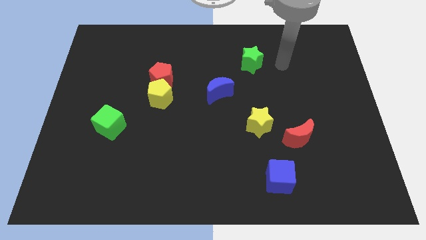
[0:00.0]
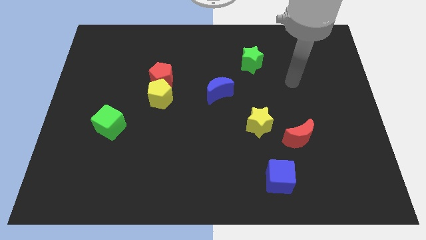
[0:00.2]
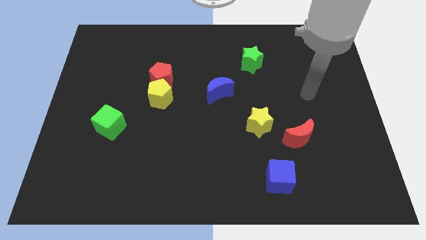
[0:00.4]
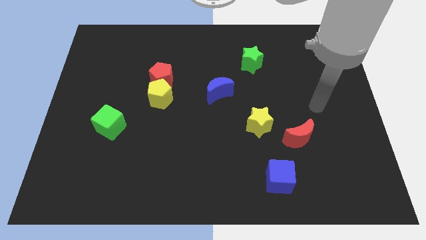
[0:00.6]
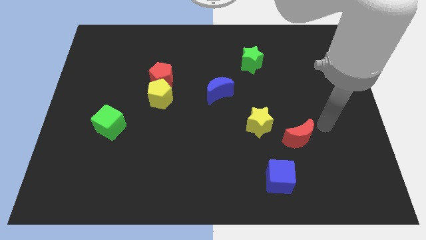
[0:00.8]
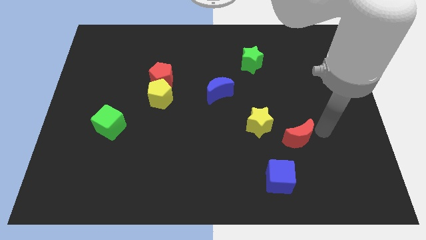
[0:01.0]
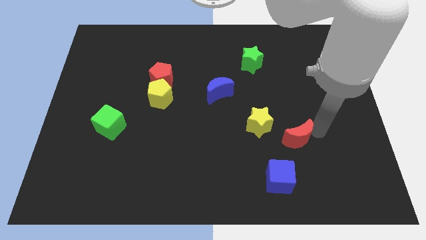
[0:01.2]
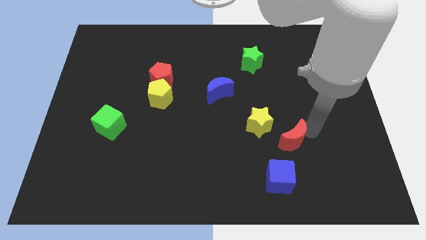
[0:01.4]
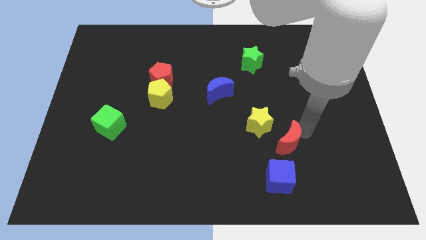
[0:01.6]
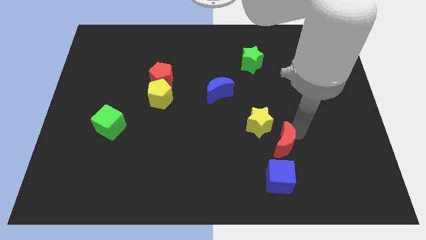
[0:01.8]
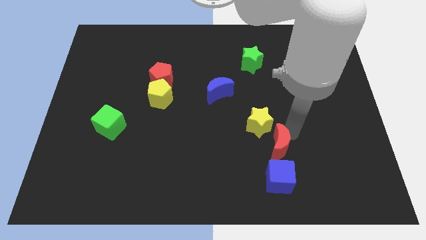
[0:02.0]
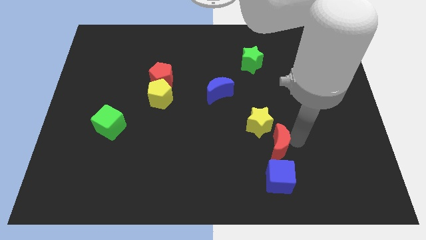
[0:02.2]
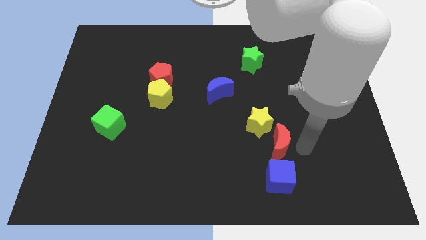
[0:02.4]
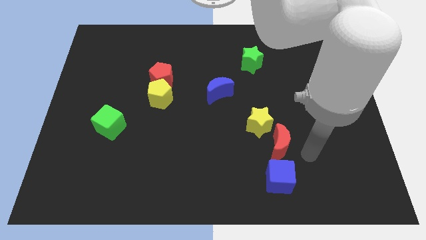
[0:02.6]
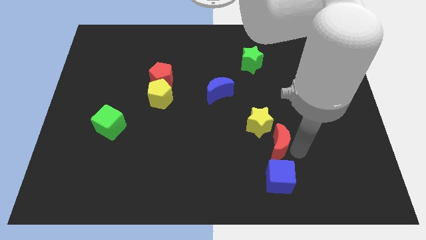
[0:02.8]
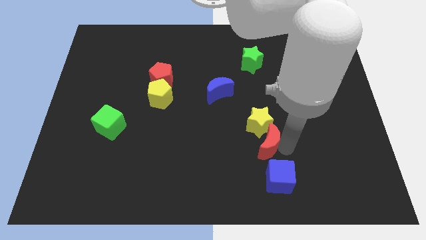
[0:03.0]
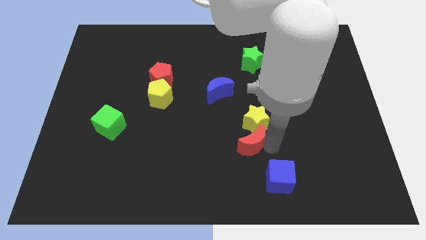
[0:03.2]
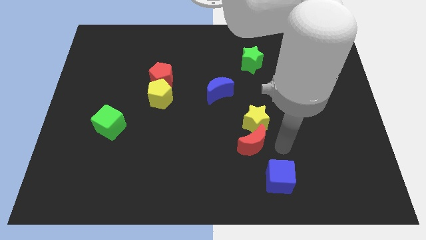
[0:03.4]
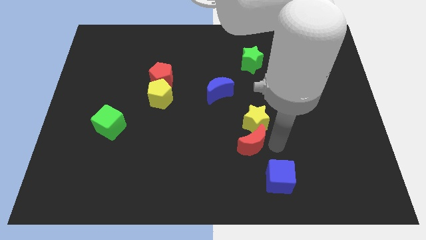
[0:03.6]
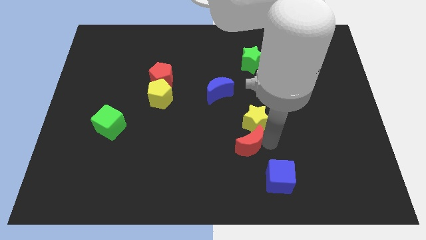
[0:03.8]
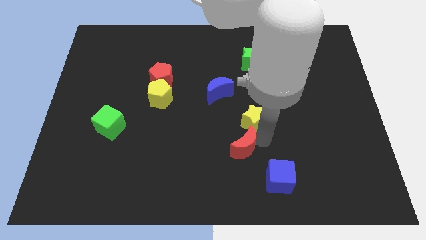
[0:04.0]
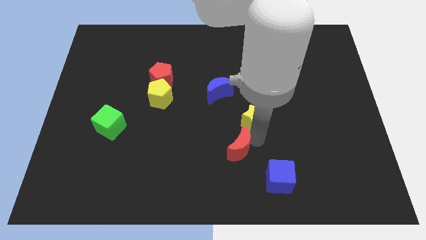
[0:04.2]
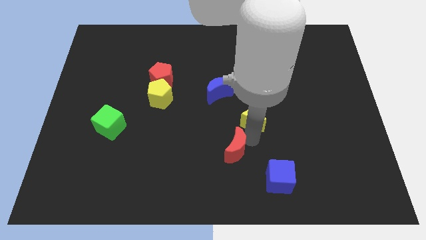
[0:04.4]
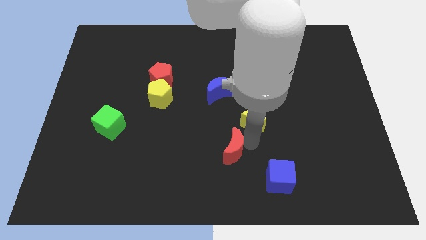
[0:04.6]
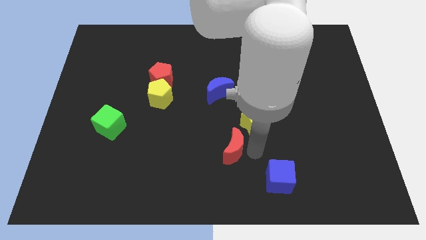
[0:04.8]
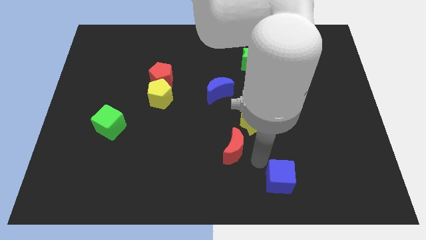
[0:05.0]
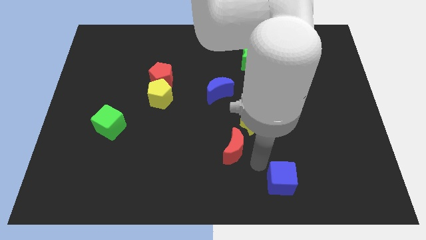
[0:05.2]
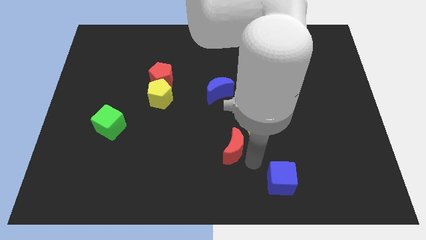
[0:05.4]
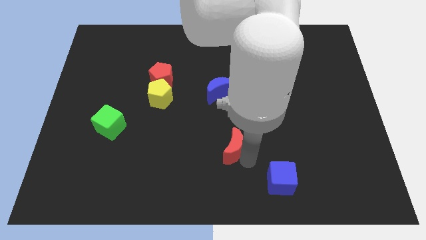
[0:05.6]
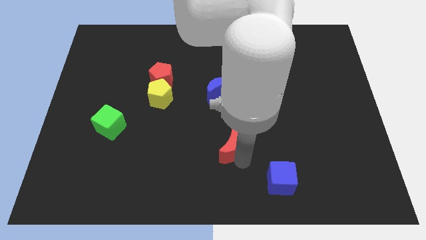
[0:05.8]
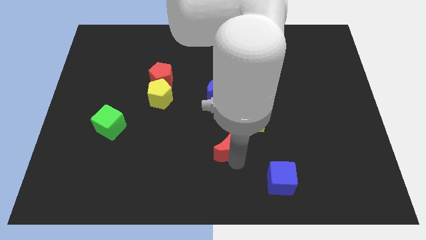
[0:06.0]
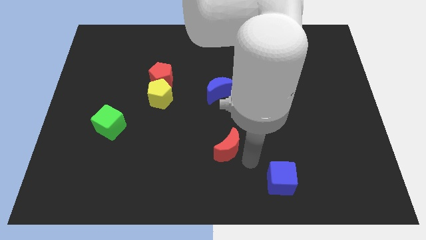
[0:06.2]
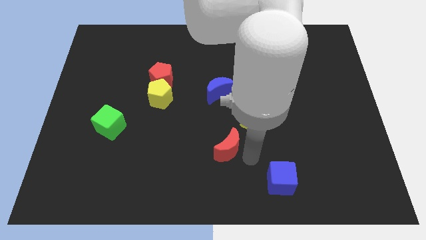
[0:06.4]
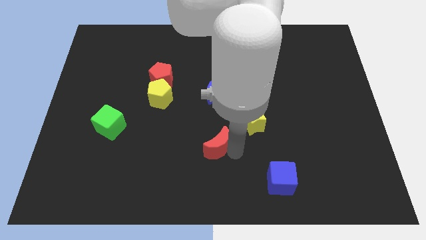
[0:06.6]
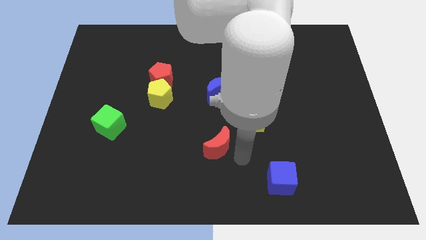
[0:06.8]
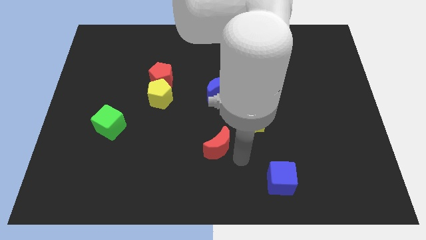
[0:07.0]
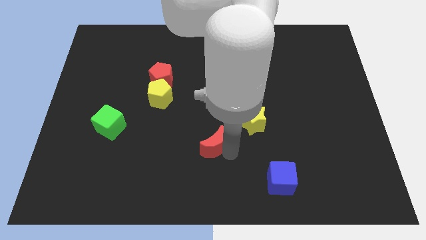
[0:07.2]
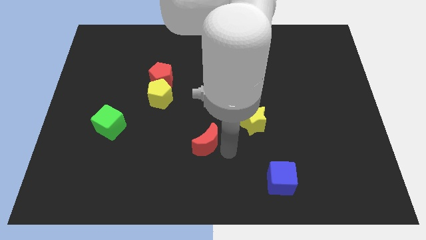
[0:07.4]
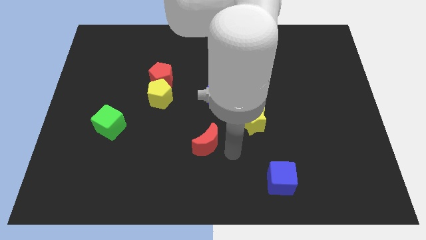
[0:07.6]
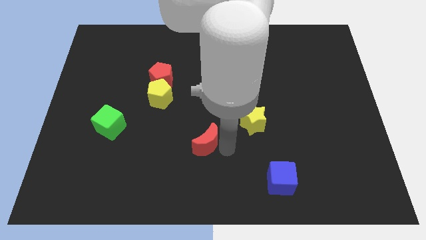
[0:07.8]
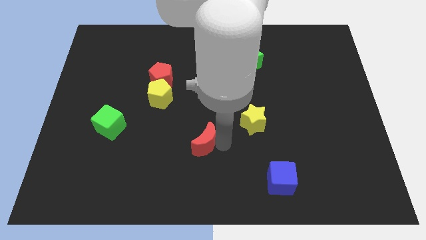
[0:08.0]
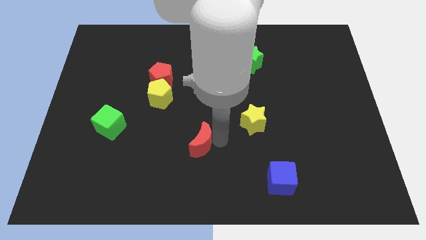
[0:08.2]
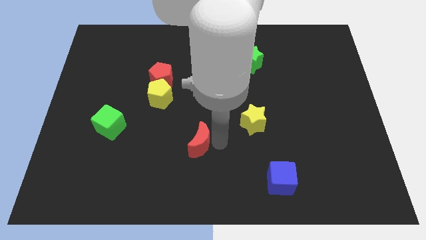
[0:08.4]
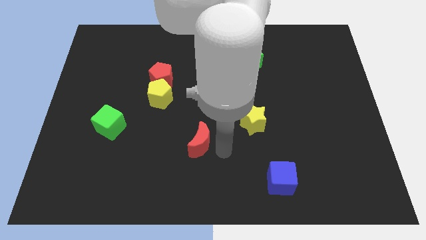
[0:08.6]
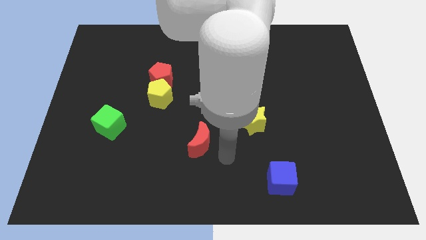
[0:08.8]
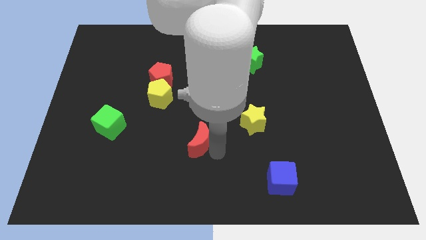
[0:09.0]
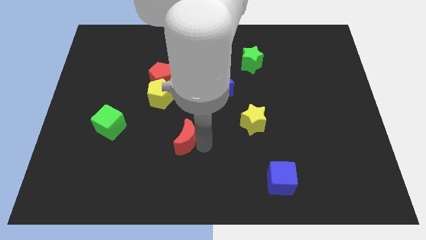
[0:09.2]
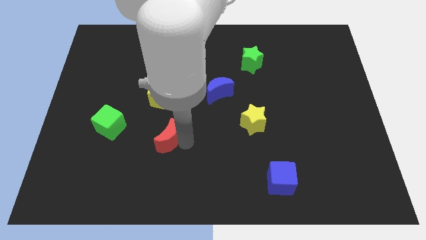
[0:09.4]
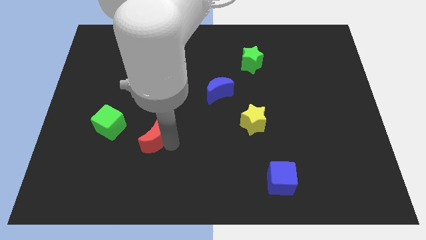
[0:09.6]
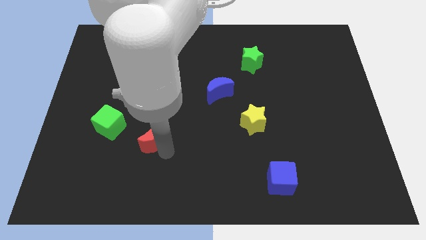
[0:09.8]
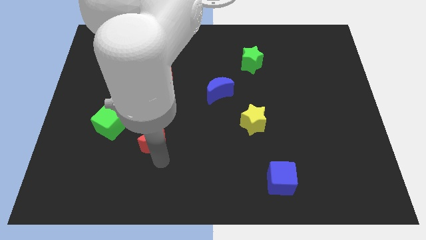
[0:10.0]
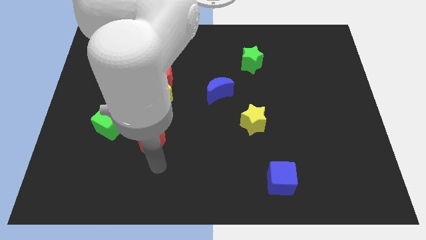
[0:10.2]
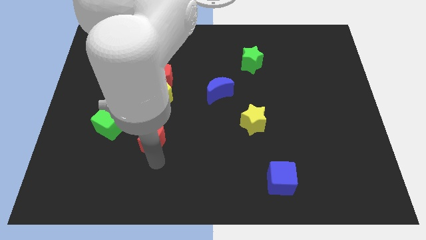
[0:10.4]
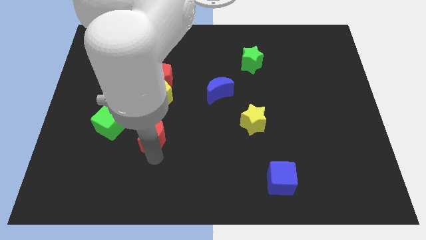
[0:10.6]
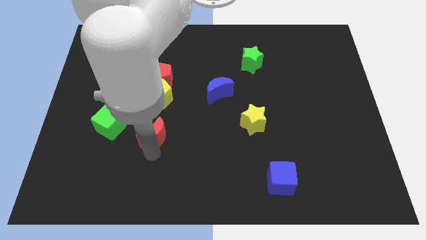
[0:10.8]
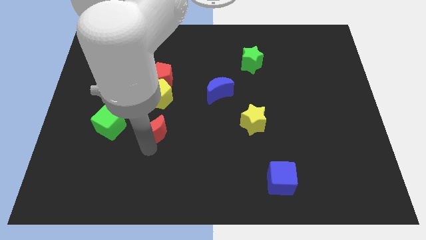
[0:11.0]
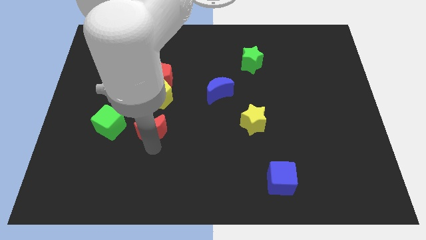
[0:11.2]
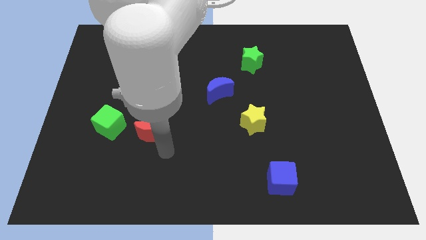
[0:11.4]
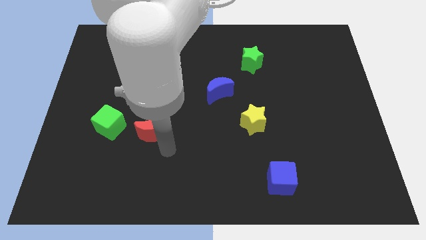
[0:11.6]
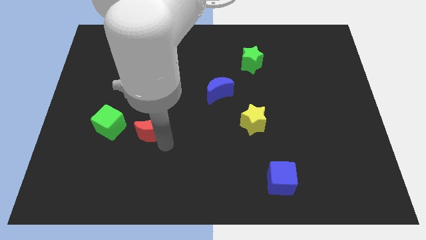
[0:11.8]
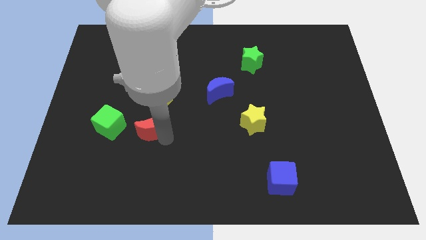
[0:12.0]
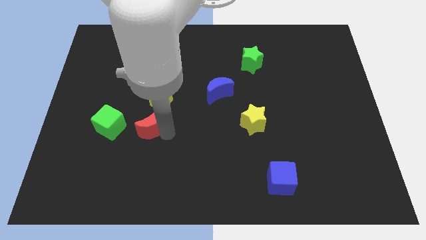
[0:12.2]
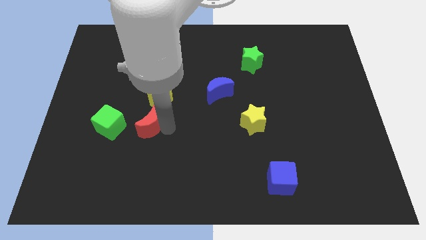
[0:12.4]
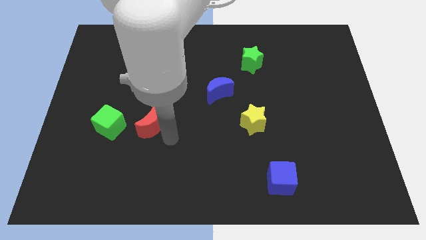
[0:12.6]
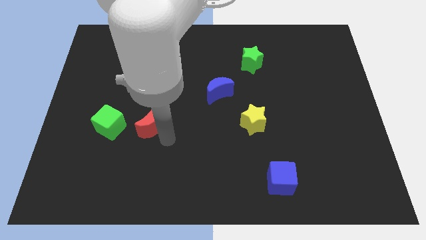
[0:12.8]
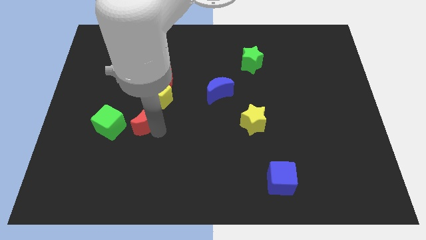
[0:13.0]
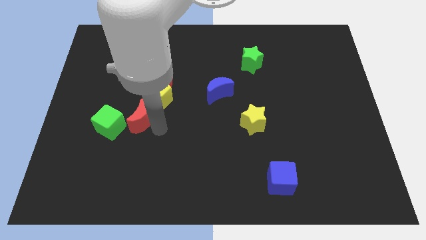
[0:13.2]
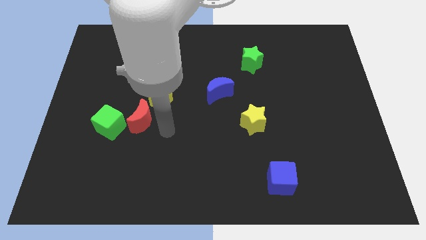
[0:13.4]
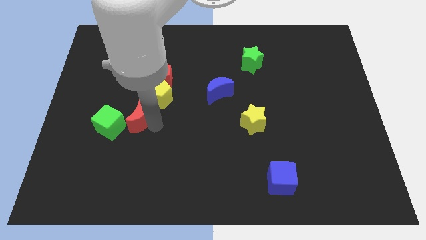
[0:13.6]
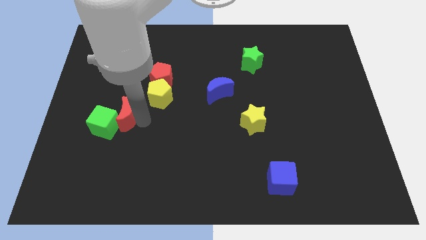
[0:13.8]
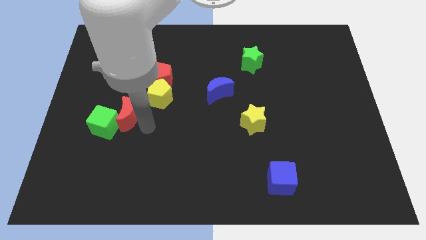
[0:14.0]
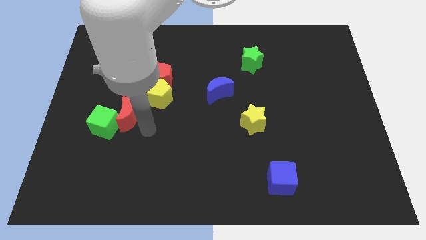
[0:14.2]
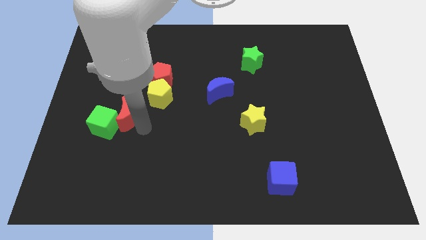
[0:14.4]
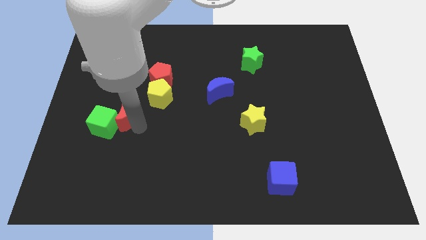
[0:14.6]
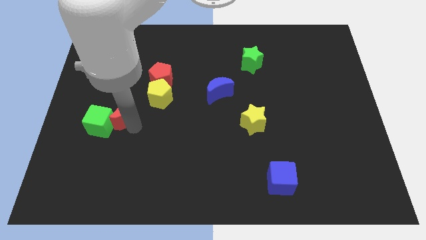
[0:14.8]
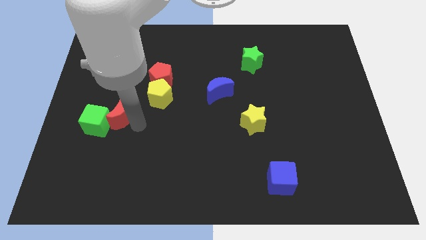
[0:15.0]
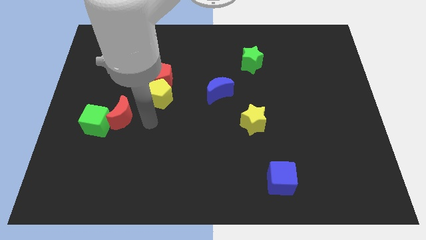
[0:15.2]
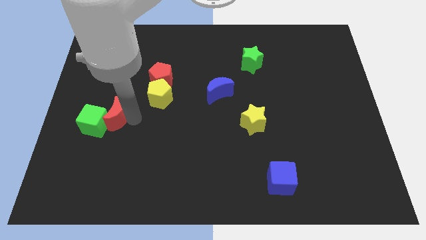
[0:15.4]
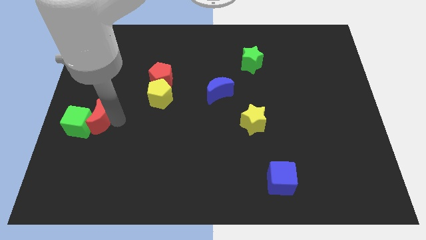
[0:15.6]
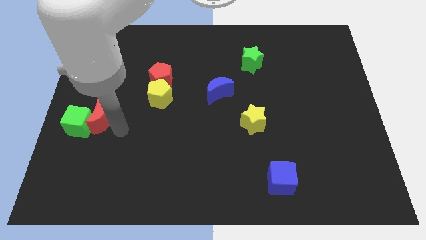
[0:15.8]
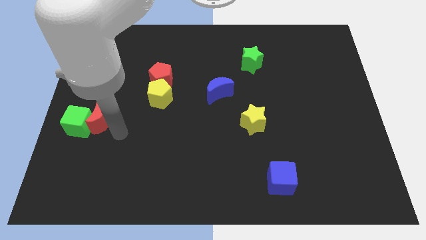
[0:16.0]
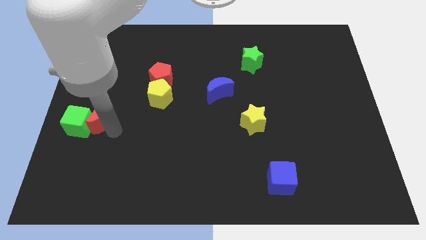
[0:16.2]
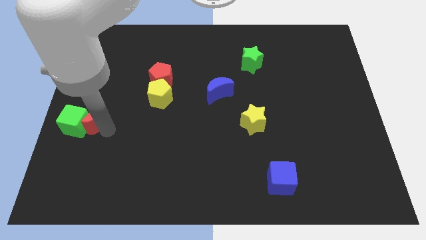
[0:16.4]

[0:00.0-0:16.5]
put the red moon to the center left
